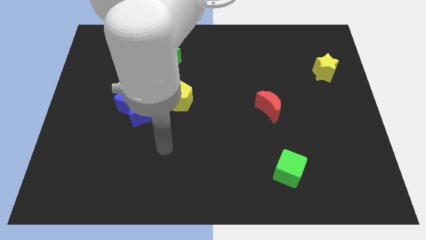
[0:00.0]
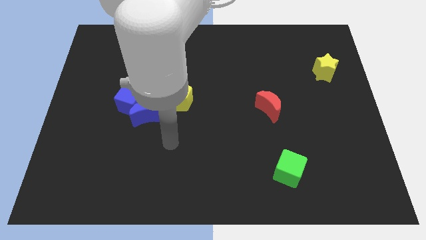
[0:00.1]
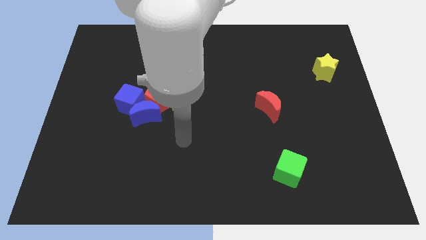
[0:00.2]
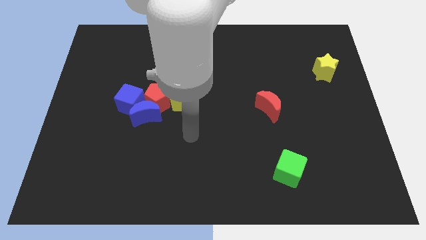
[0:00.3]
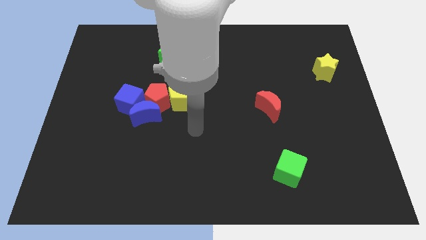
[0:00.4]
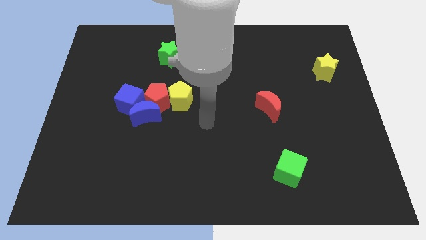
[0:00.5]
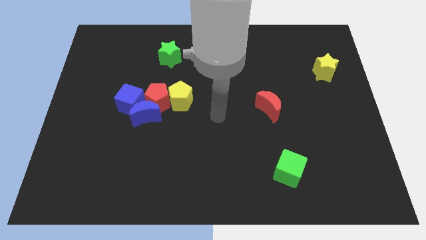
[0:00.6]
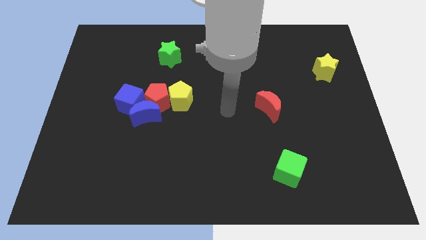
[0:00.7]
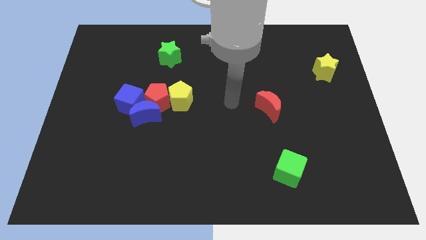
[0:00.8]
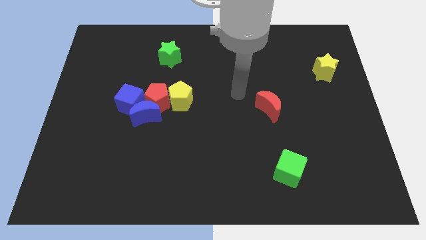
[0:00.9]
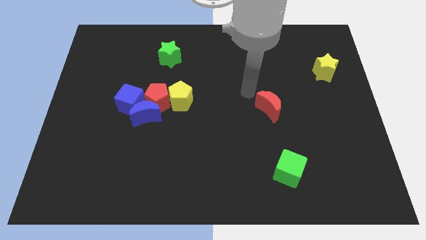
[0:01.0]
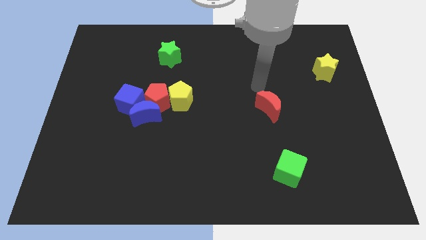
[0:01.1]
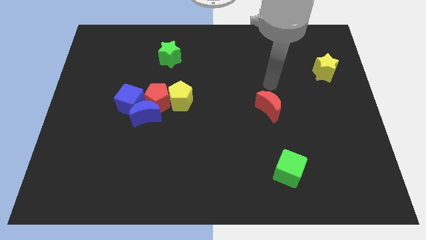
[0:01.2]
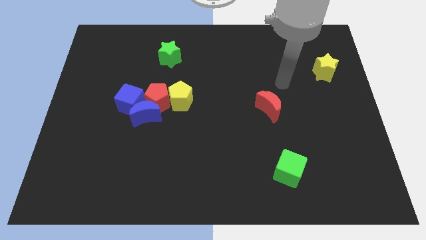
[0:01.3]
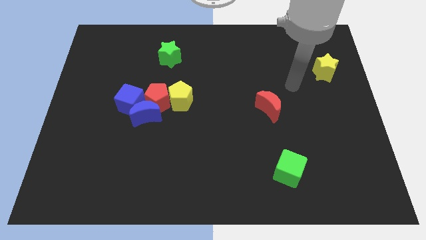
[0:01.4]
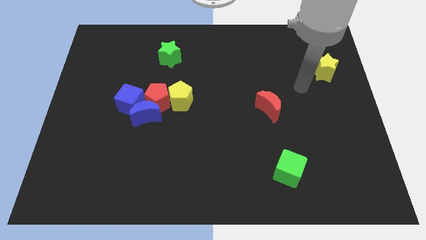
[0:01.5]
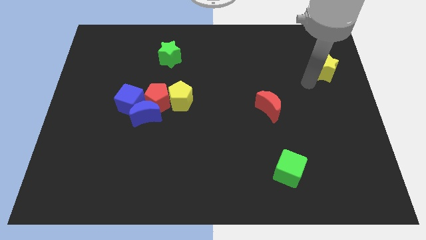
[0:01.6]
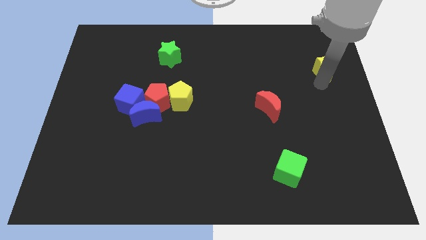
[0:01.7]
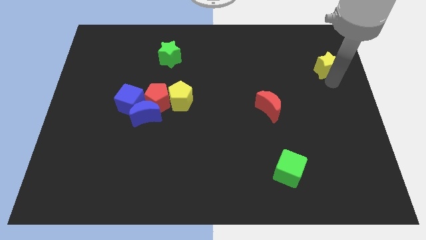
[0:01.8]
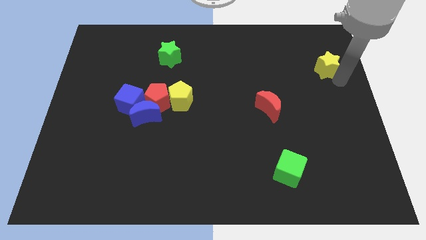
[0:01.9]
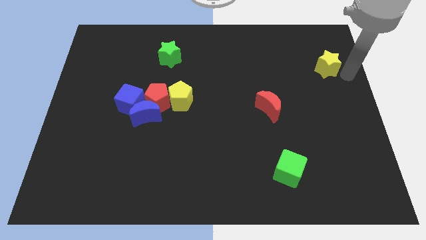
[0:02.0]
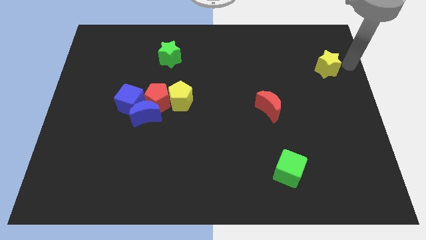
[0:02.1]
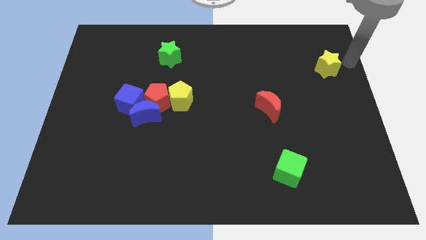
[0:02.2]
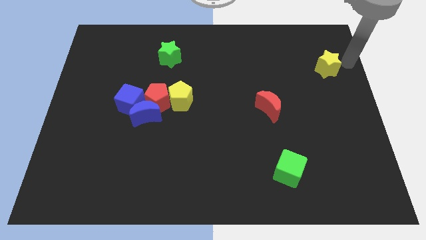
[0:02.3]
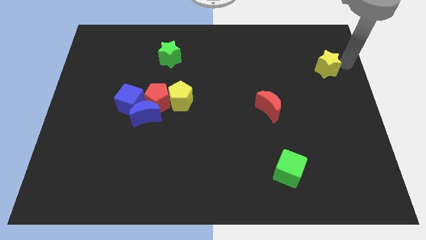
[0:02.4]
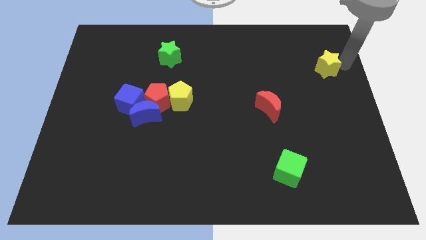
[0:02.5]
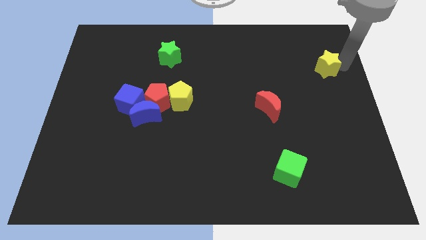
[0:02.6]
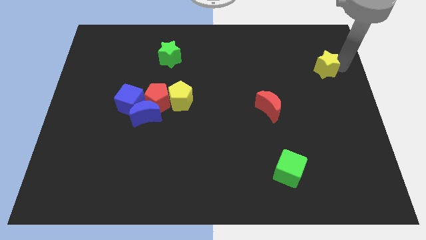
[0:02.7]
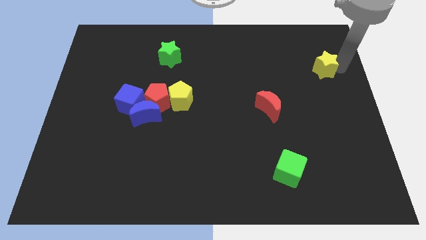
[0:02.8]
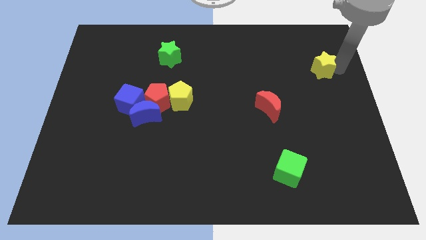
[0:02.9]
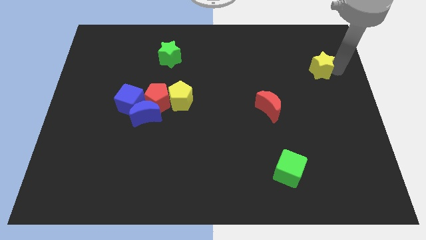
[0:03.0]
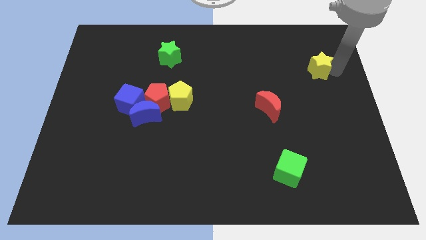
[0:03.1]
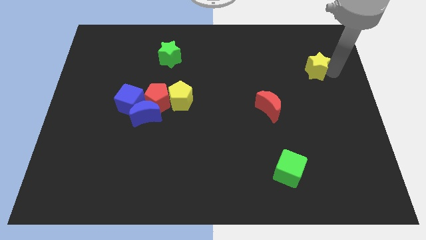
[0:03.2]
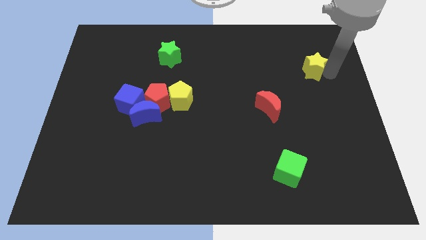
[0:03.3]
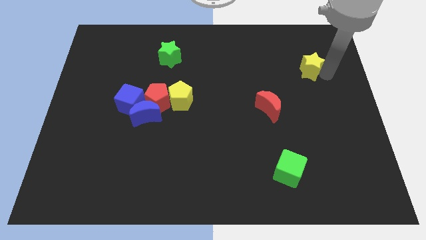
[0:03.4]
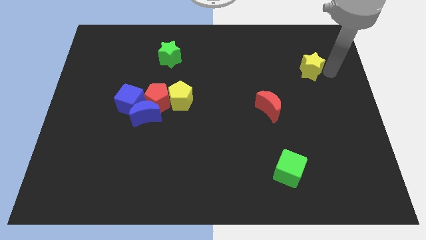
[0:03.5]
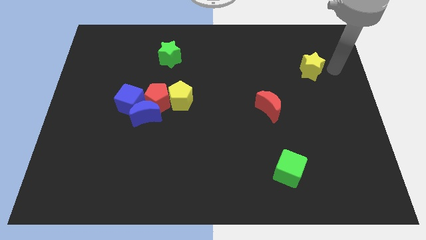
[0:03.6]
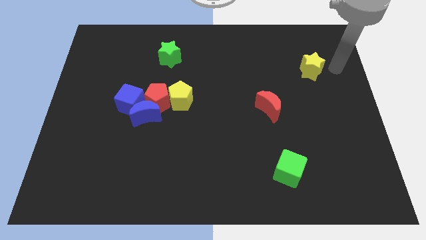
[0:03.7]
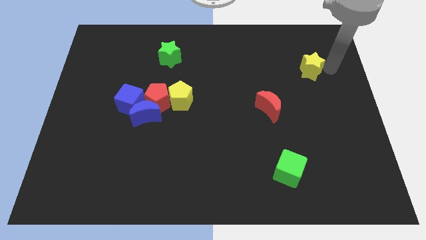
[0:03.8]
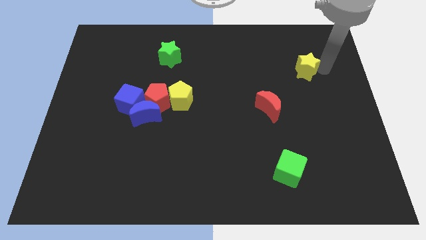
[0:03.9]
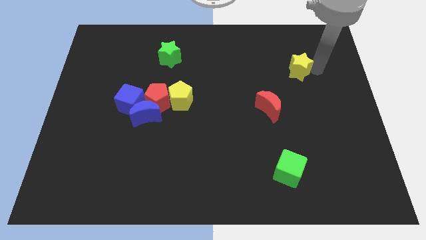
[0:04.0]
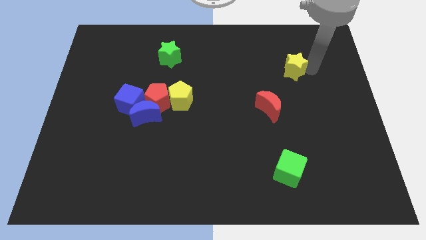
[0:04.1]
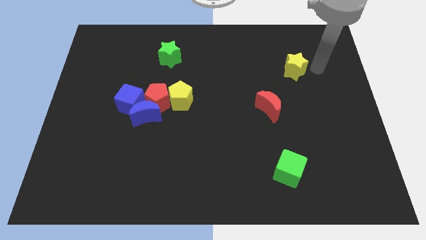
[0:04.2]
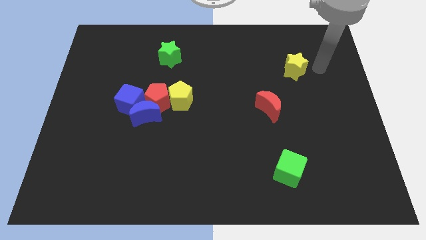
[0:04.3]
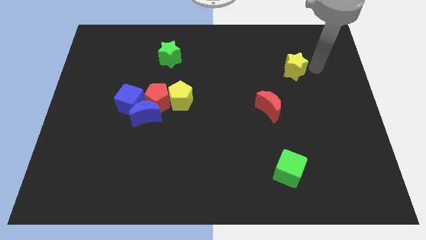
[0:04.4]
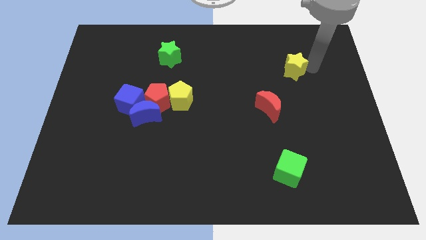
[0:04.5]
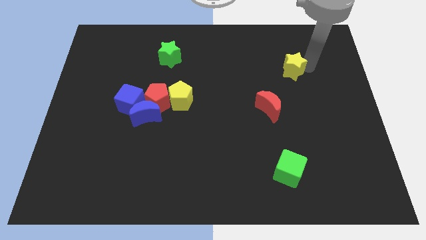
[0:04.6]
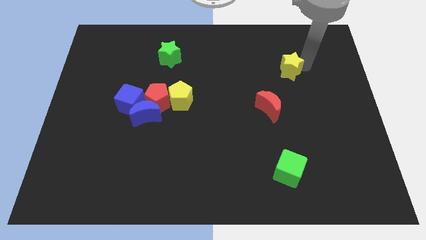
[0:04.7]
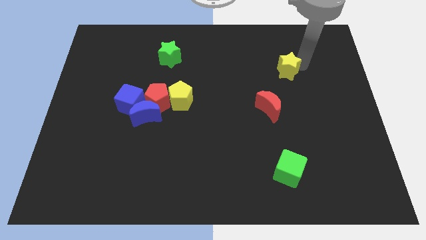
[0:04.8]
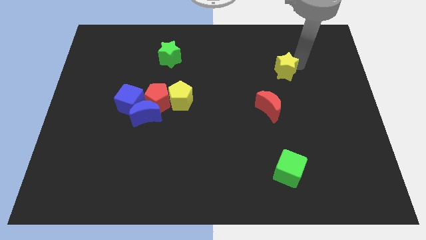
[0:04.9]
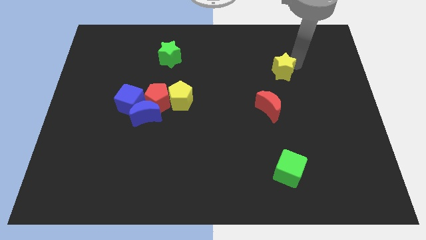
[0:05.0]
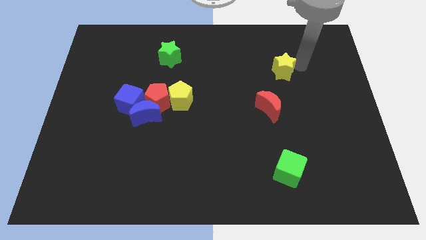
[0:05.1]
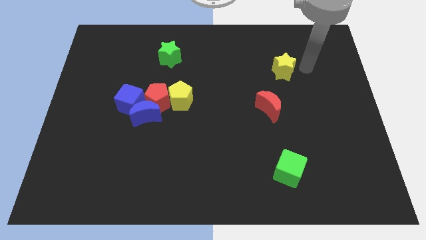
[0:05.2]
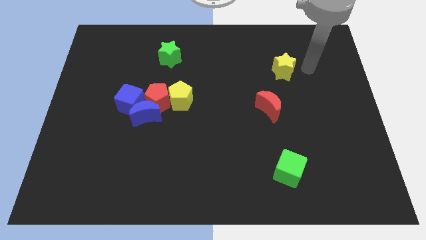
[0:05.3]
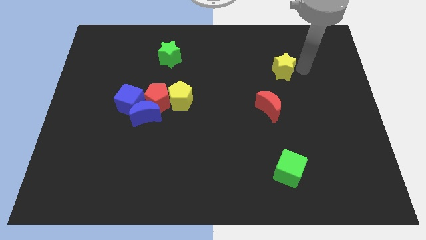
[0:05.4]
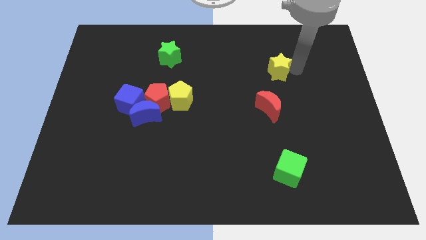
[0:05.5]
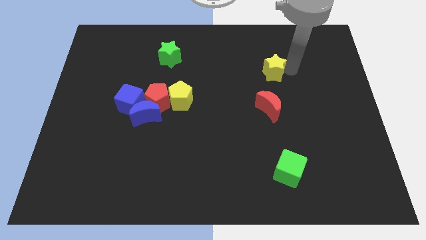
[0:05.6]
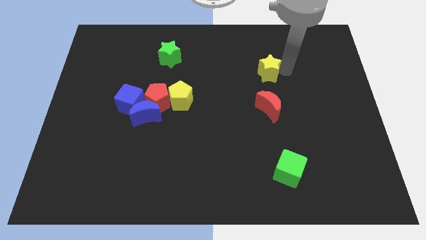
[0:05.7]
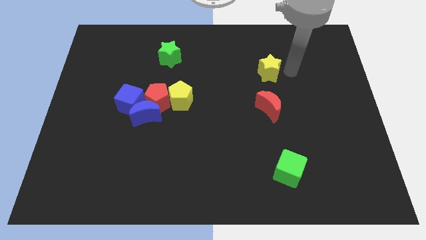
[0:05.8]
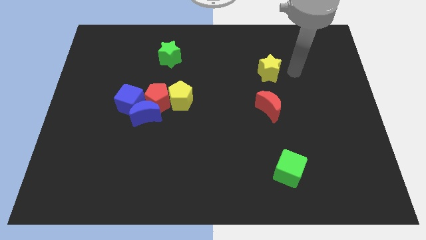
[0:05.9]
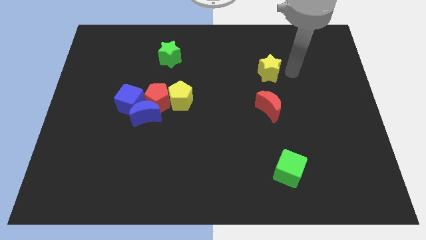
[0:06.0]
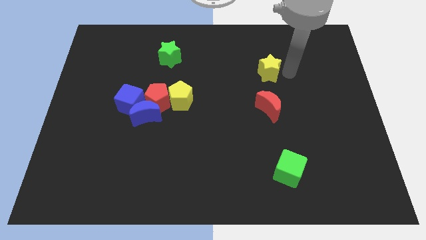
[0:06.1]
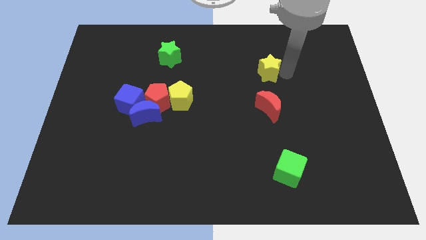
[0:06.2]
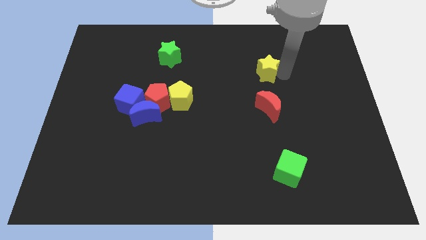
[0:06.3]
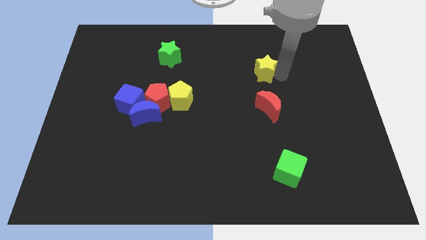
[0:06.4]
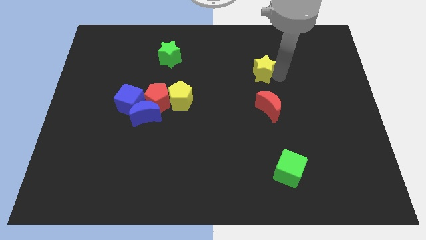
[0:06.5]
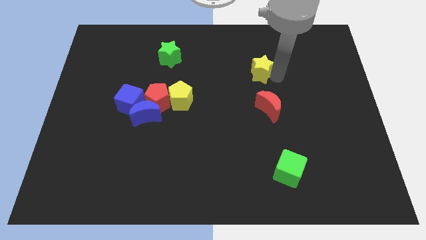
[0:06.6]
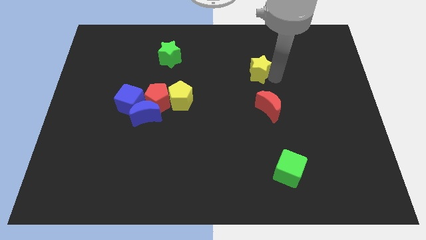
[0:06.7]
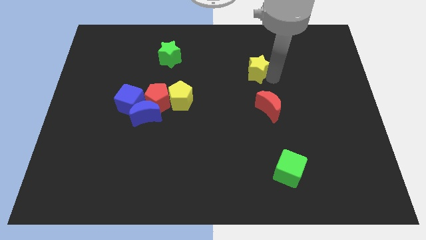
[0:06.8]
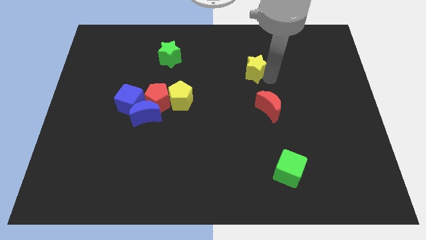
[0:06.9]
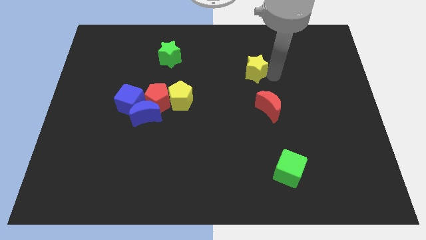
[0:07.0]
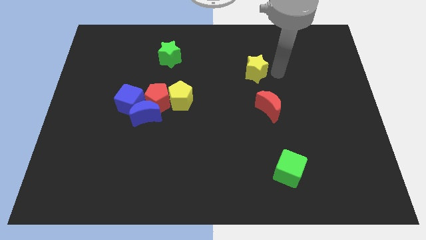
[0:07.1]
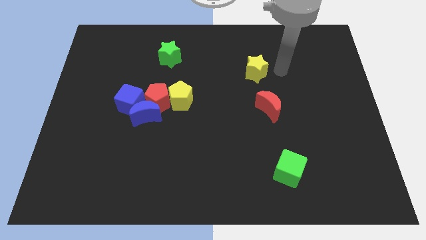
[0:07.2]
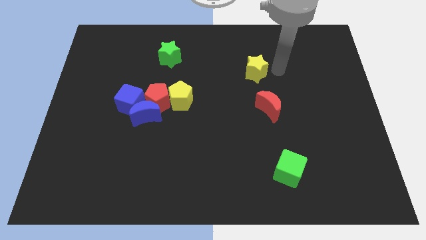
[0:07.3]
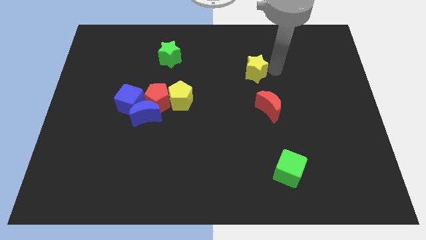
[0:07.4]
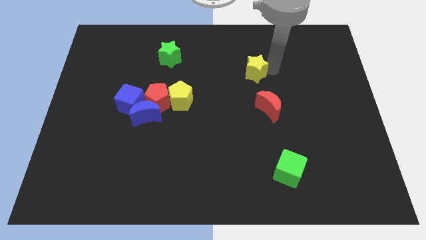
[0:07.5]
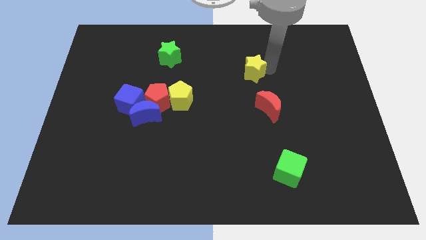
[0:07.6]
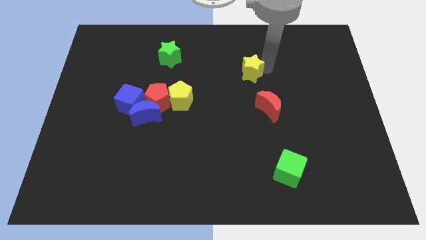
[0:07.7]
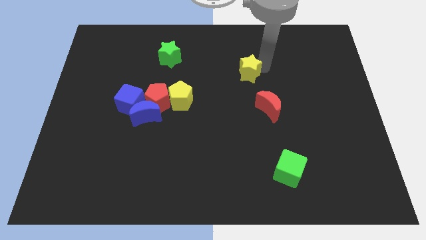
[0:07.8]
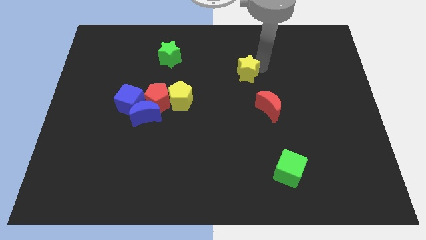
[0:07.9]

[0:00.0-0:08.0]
slide the yellow star to the left
